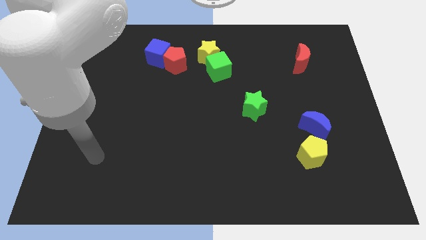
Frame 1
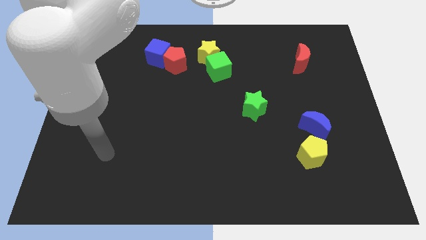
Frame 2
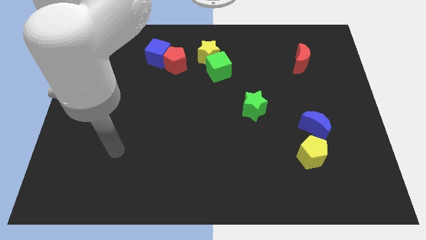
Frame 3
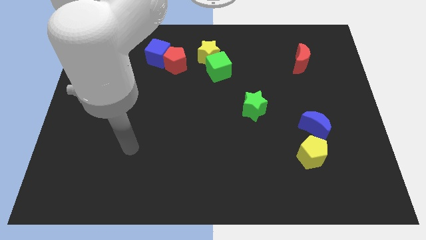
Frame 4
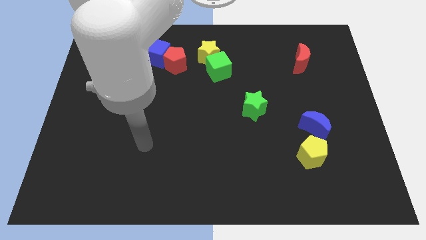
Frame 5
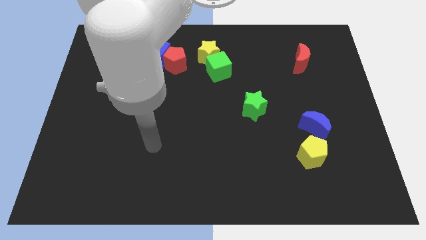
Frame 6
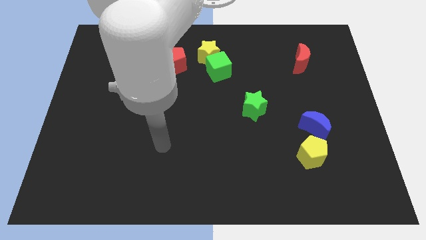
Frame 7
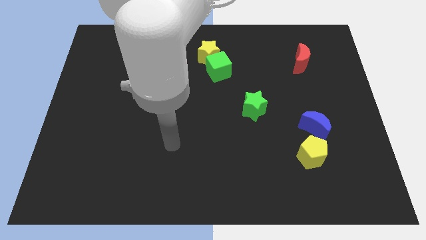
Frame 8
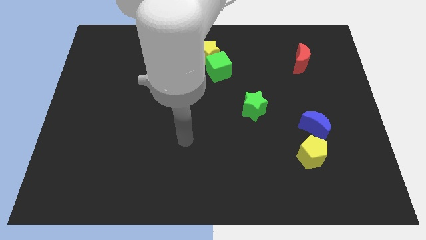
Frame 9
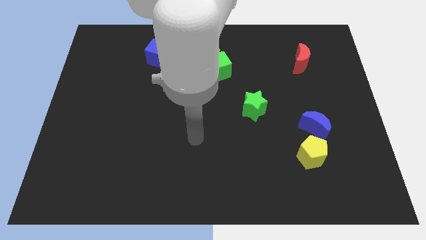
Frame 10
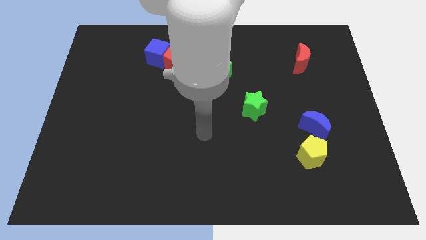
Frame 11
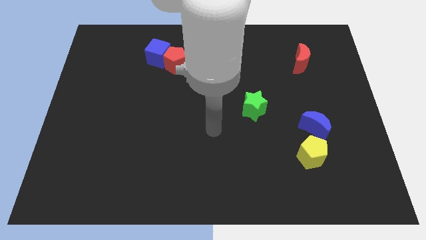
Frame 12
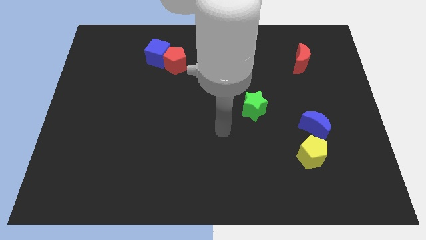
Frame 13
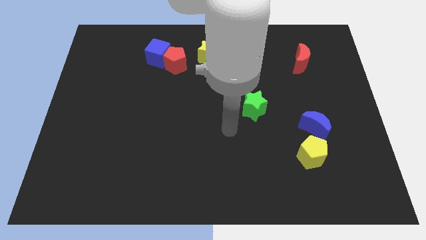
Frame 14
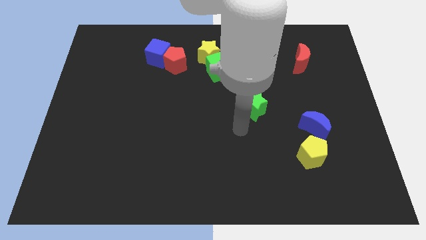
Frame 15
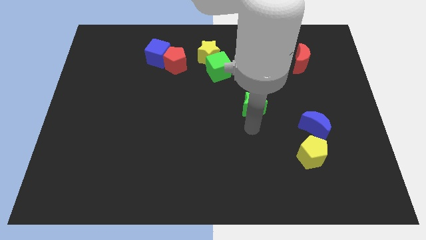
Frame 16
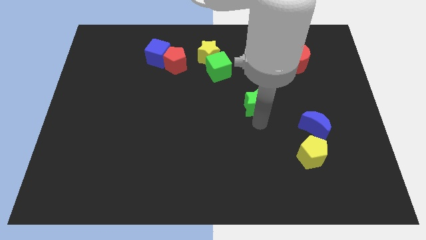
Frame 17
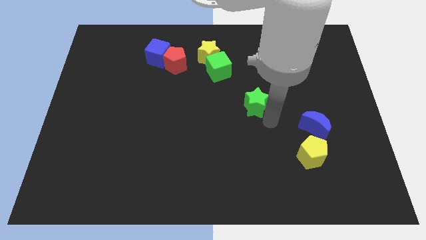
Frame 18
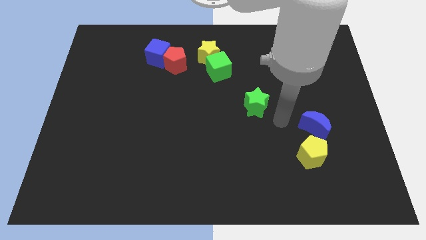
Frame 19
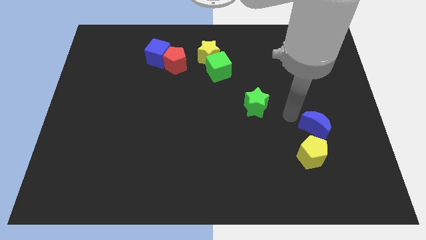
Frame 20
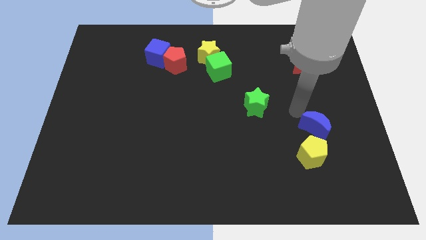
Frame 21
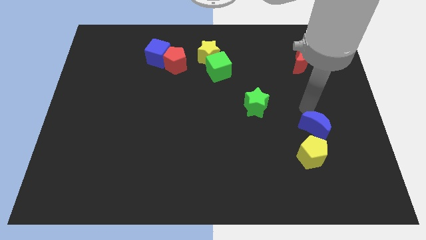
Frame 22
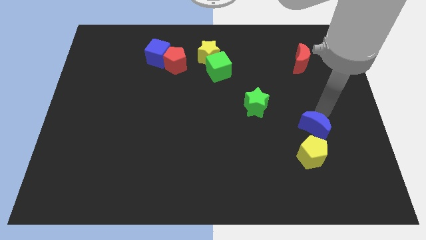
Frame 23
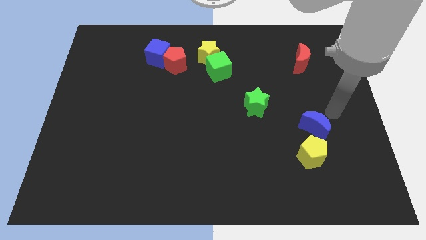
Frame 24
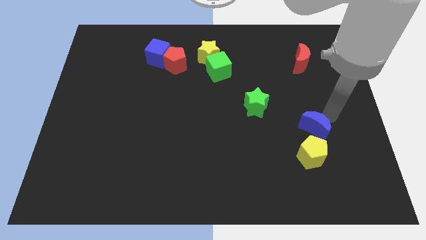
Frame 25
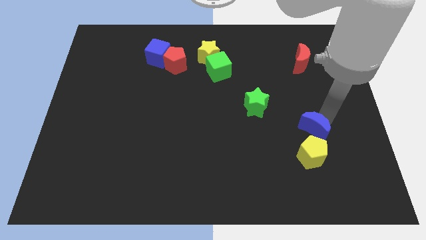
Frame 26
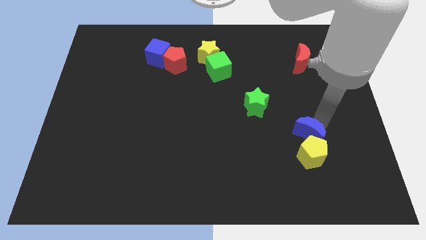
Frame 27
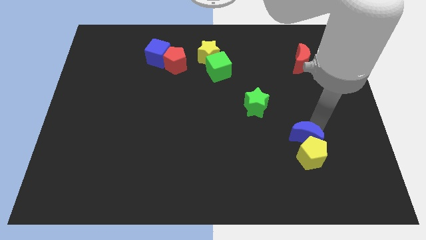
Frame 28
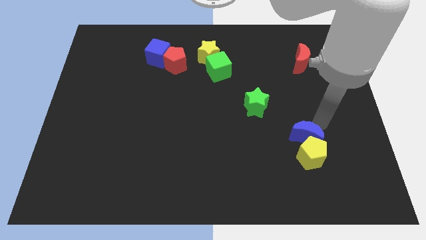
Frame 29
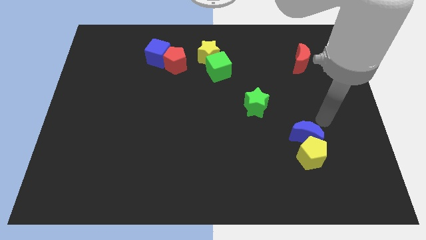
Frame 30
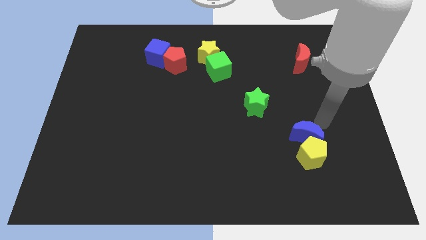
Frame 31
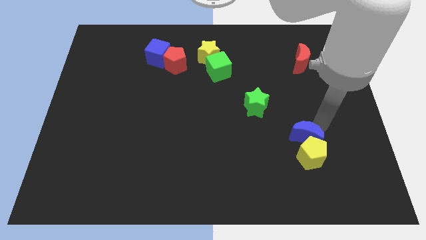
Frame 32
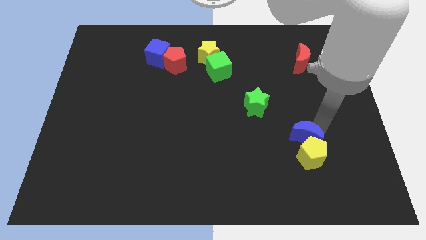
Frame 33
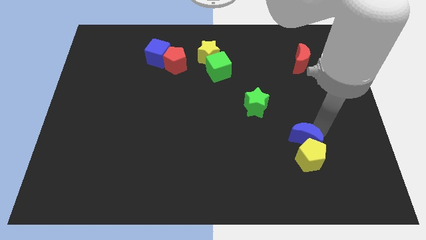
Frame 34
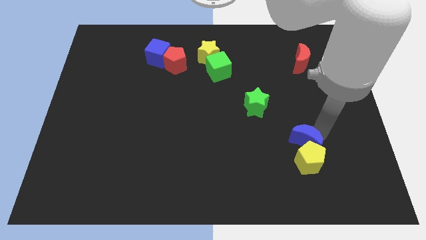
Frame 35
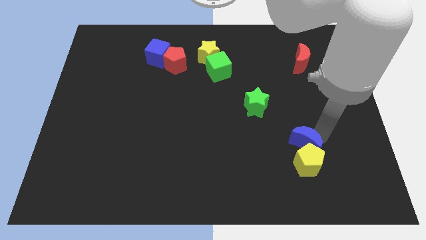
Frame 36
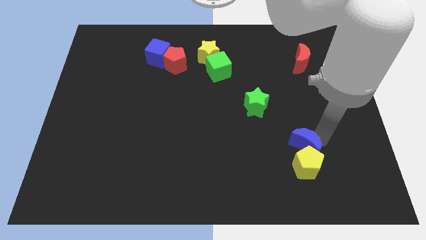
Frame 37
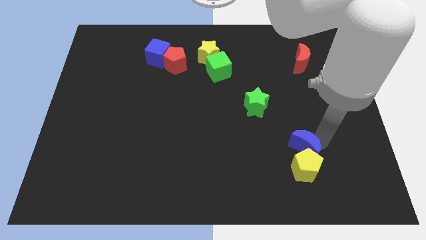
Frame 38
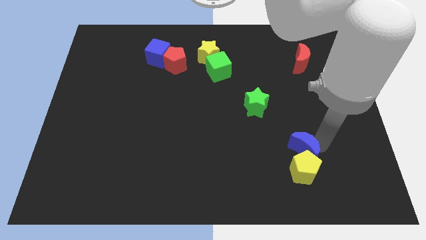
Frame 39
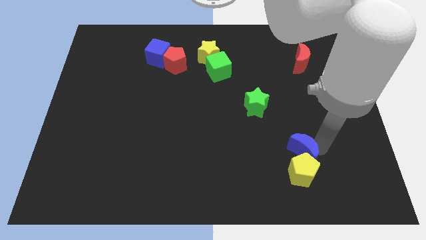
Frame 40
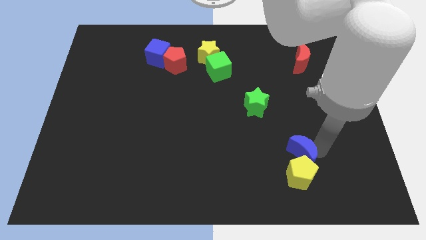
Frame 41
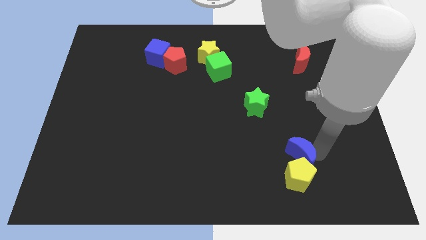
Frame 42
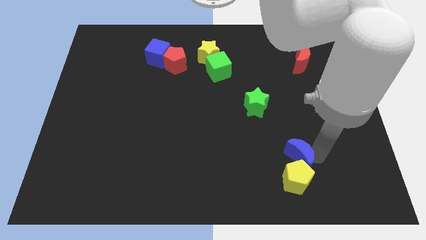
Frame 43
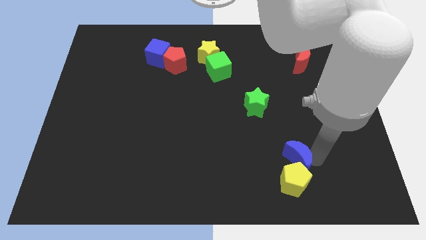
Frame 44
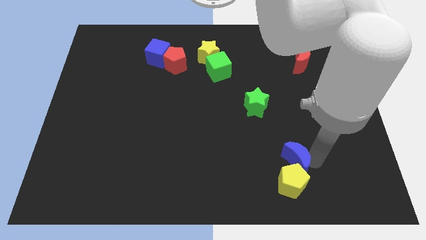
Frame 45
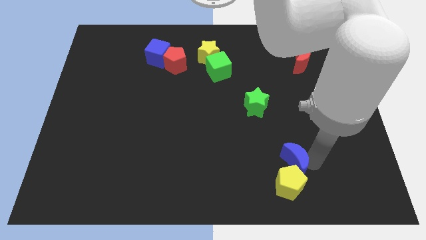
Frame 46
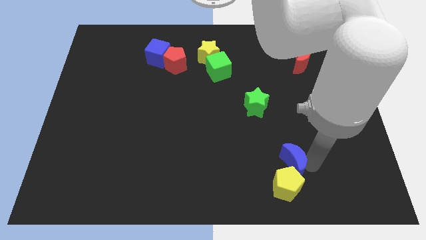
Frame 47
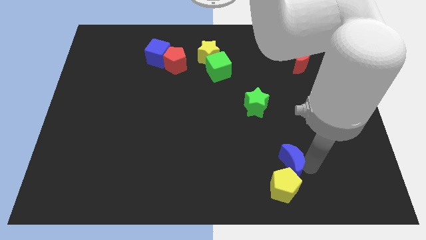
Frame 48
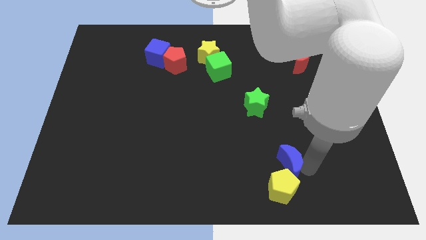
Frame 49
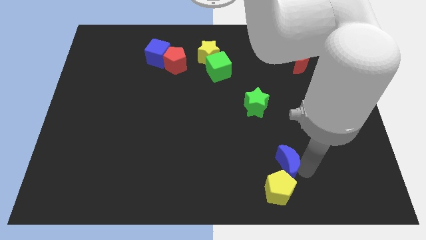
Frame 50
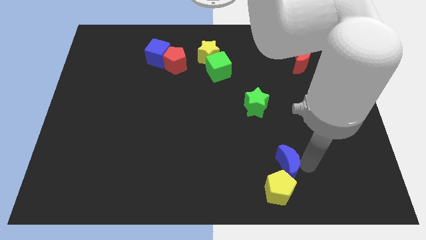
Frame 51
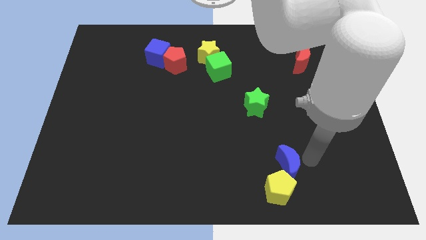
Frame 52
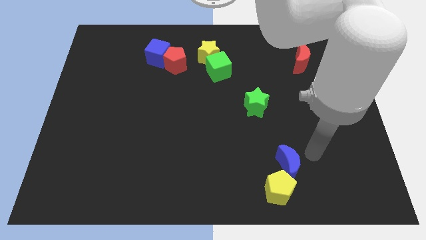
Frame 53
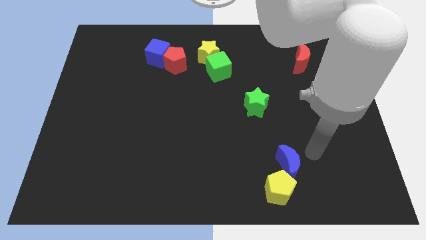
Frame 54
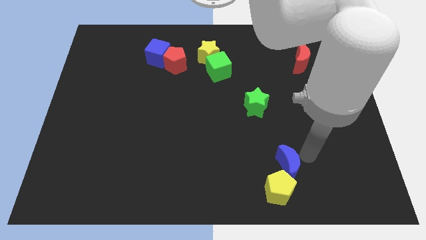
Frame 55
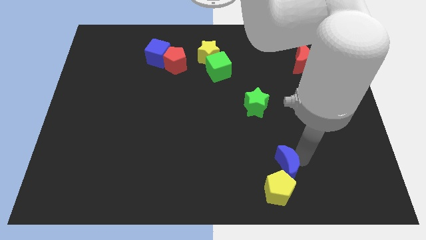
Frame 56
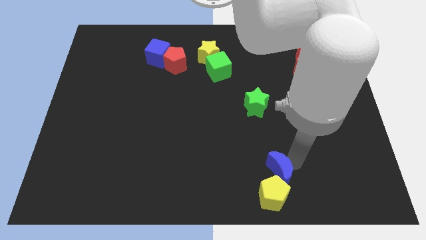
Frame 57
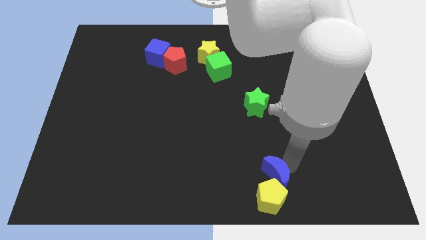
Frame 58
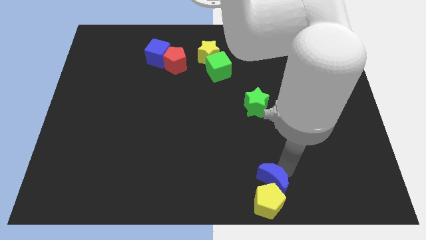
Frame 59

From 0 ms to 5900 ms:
push the blue moon to the bottom
